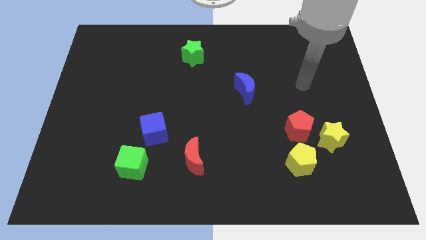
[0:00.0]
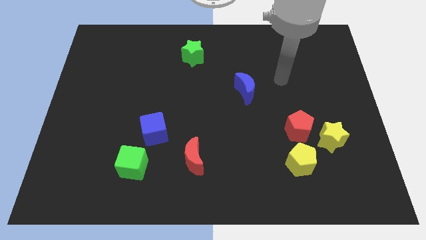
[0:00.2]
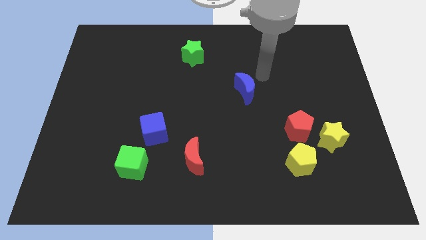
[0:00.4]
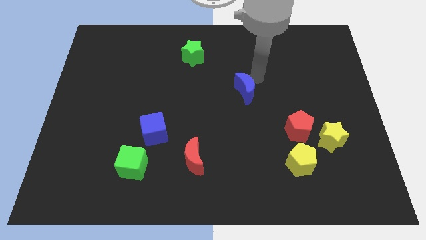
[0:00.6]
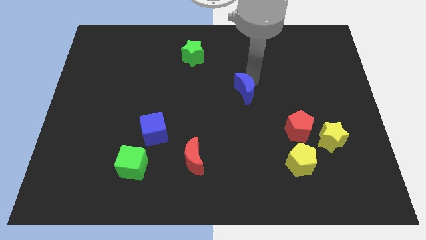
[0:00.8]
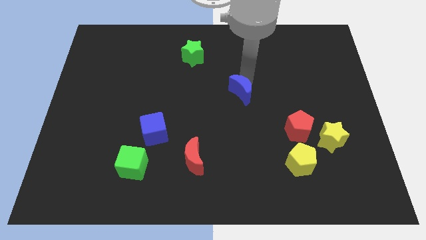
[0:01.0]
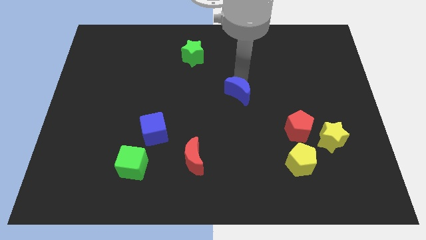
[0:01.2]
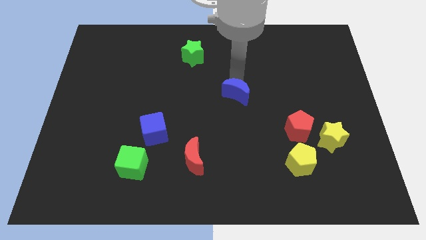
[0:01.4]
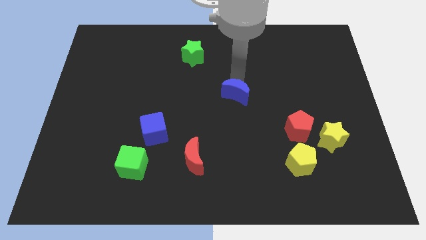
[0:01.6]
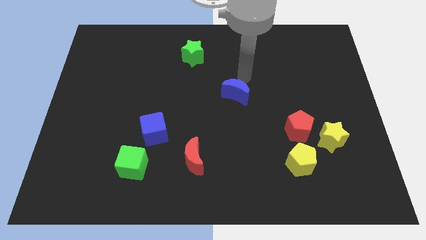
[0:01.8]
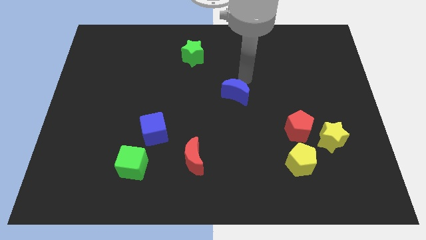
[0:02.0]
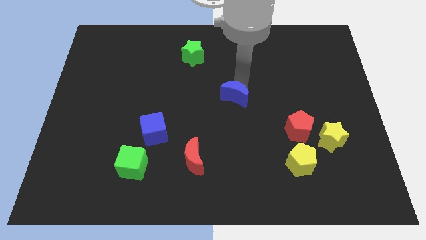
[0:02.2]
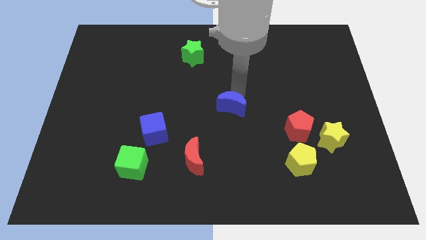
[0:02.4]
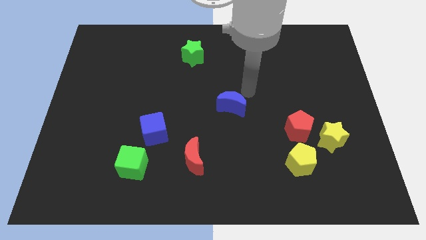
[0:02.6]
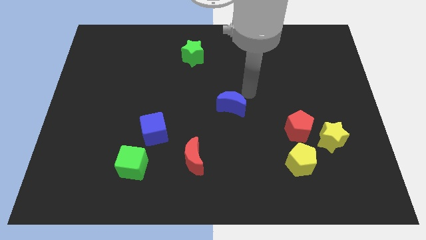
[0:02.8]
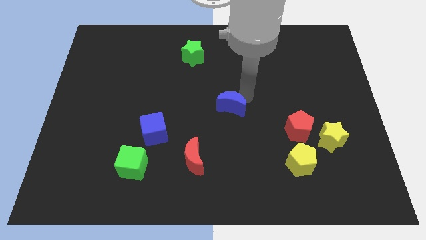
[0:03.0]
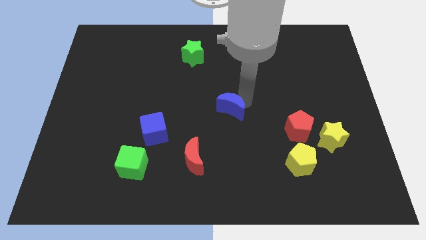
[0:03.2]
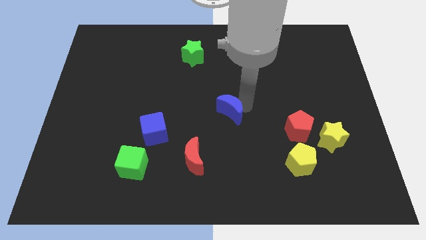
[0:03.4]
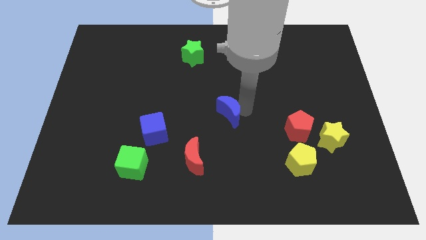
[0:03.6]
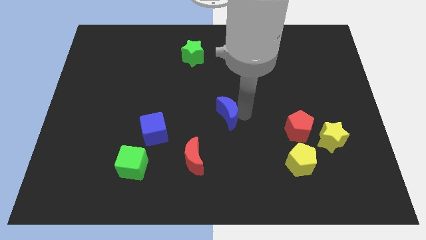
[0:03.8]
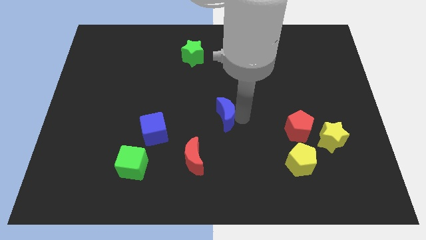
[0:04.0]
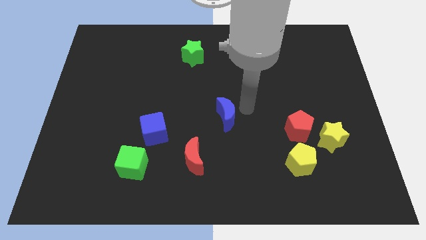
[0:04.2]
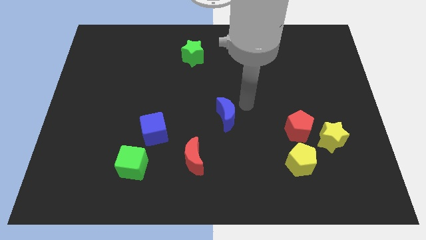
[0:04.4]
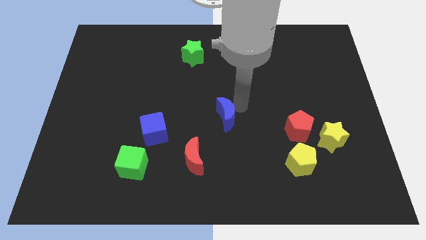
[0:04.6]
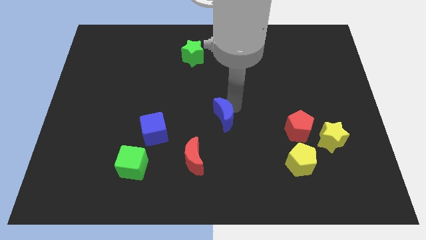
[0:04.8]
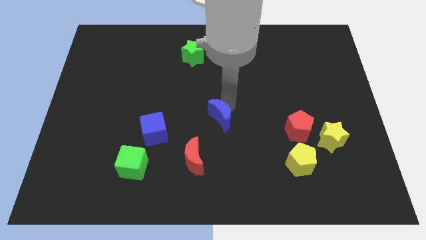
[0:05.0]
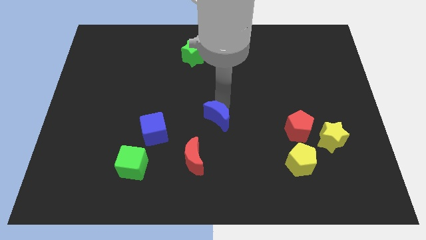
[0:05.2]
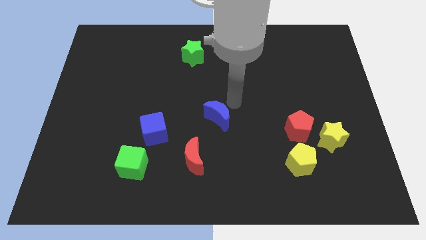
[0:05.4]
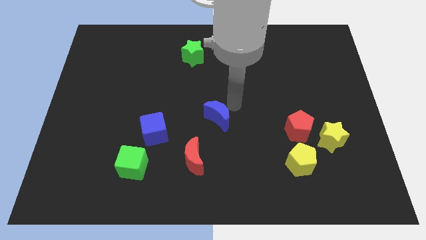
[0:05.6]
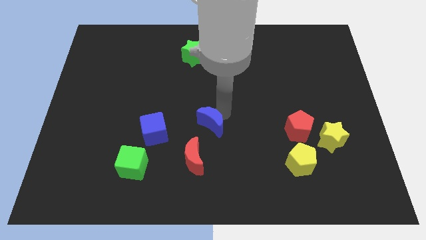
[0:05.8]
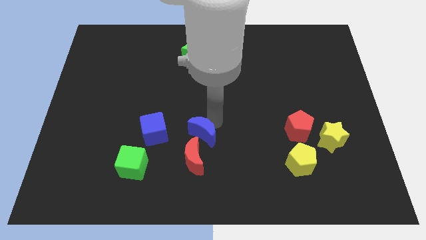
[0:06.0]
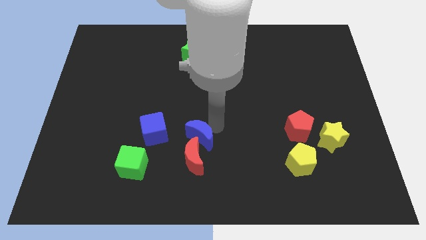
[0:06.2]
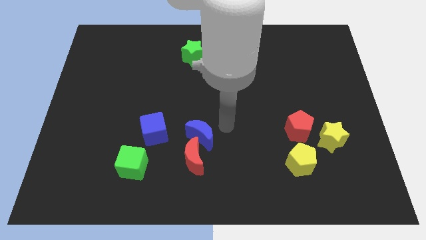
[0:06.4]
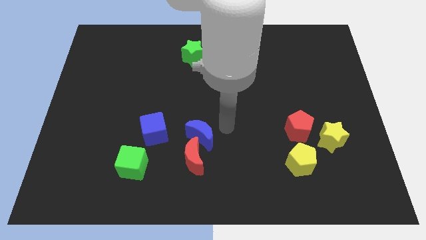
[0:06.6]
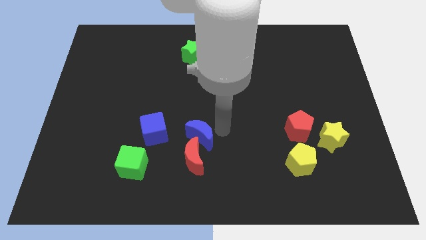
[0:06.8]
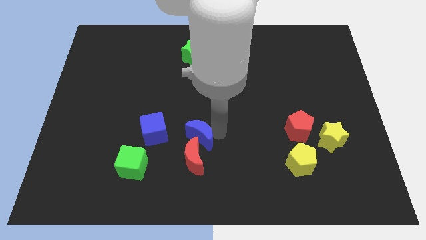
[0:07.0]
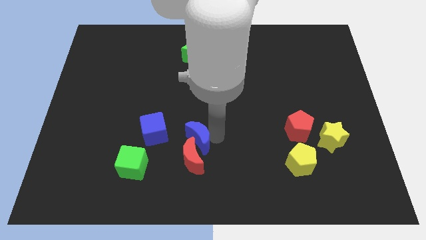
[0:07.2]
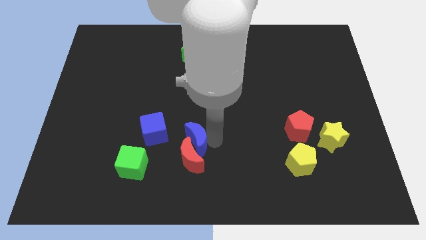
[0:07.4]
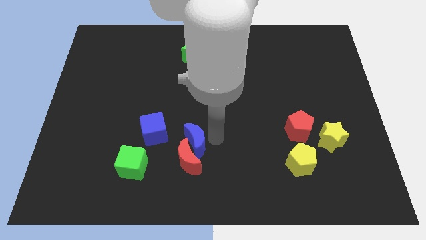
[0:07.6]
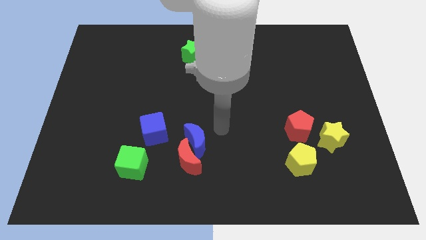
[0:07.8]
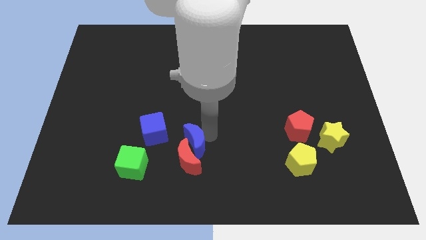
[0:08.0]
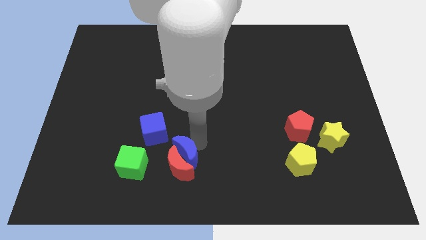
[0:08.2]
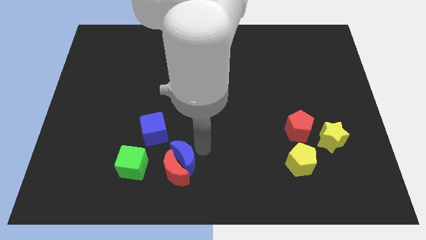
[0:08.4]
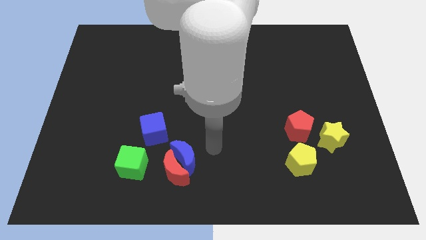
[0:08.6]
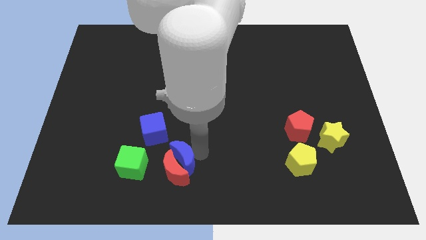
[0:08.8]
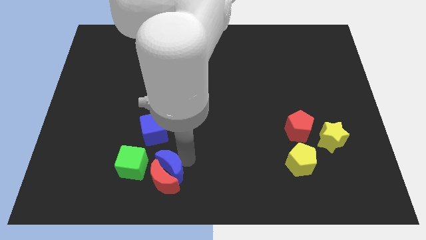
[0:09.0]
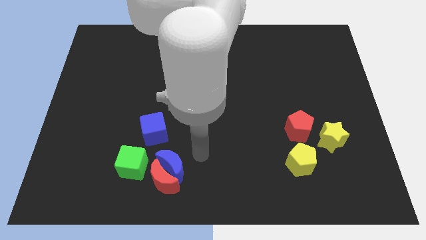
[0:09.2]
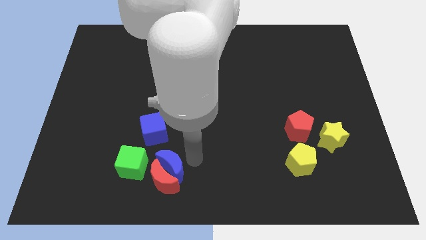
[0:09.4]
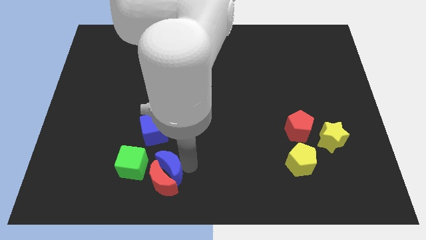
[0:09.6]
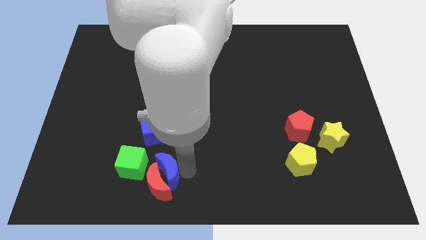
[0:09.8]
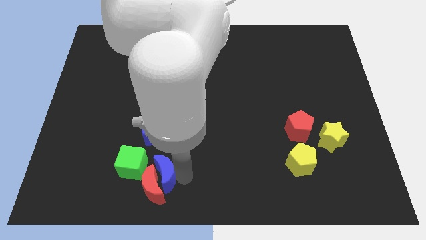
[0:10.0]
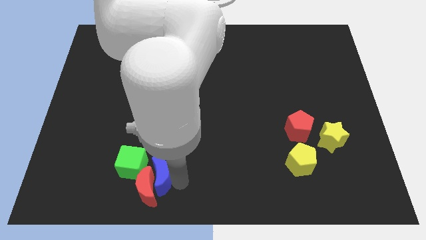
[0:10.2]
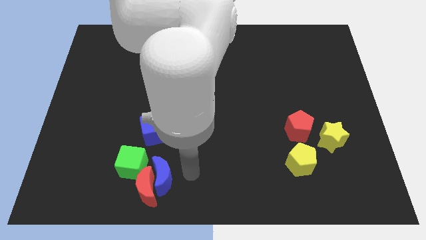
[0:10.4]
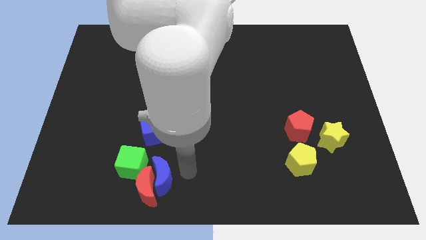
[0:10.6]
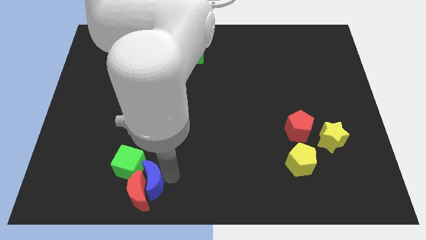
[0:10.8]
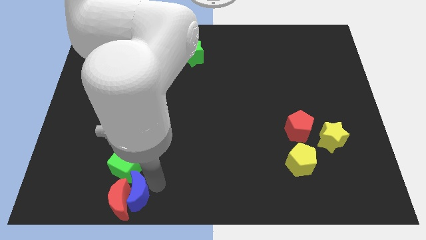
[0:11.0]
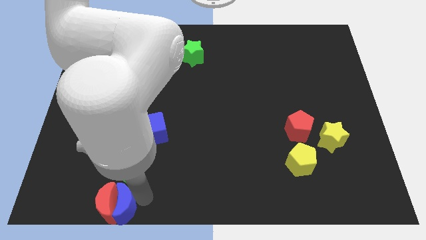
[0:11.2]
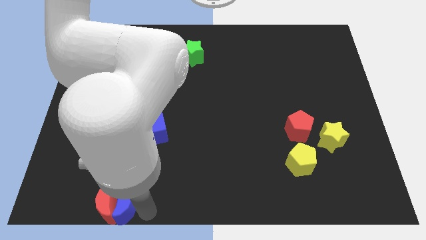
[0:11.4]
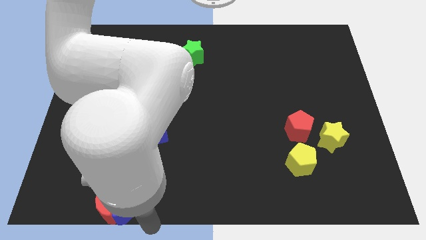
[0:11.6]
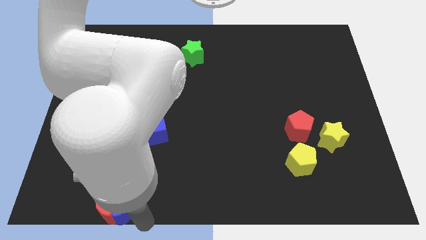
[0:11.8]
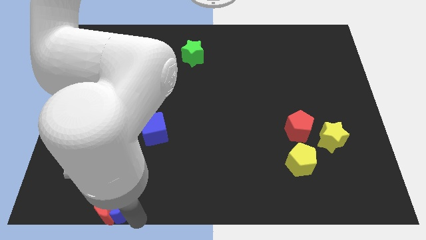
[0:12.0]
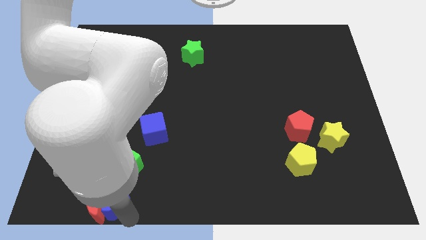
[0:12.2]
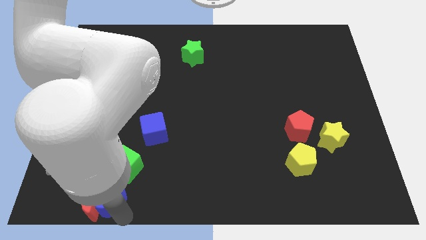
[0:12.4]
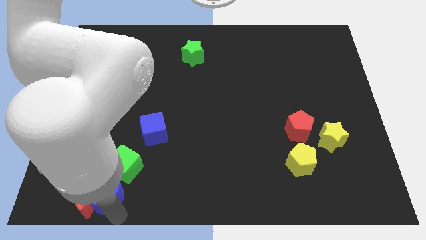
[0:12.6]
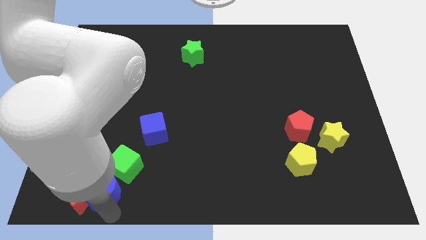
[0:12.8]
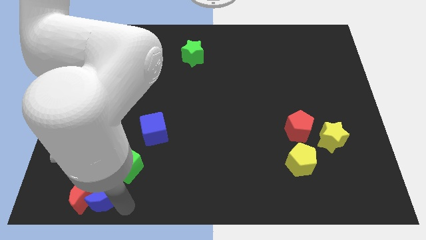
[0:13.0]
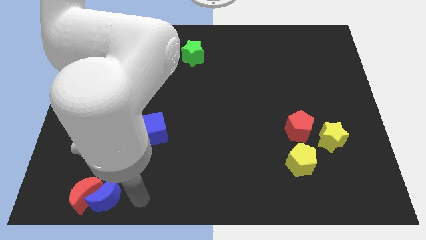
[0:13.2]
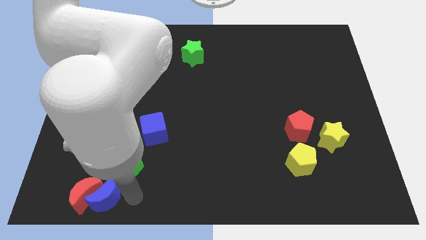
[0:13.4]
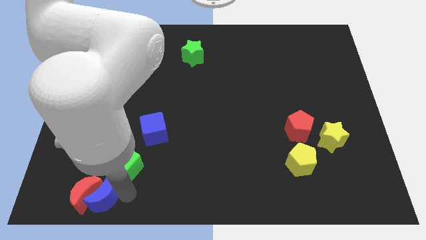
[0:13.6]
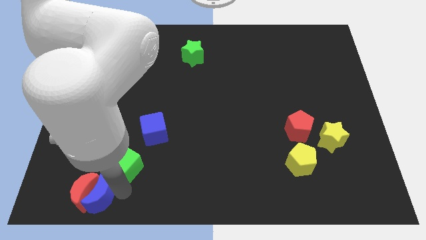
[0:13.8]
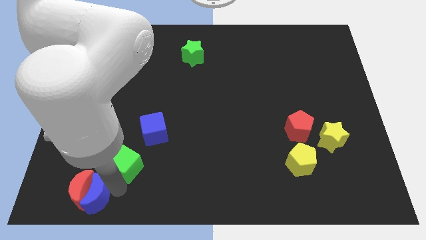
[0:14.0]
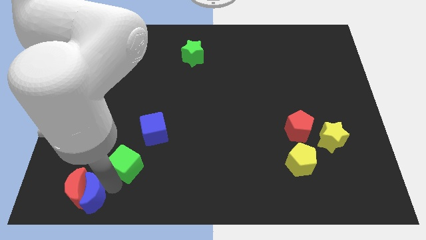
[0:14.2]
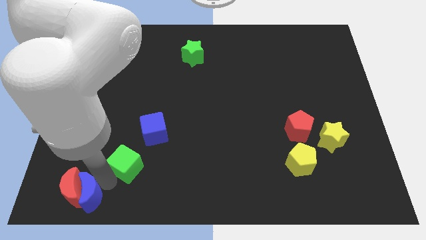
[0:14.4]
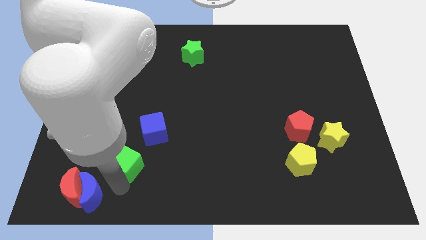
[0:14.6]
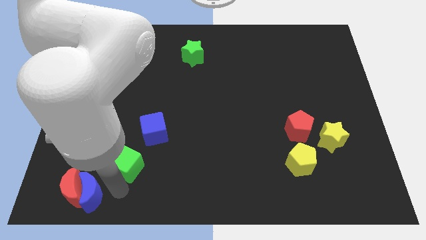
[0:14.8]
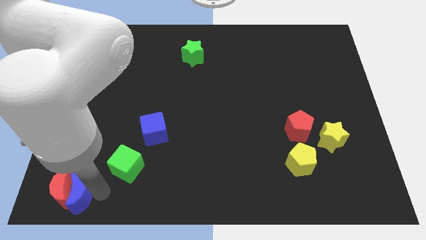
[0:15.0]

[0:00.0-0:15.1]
slide the blue moon to the lower left corner
